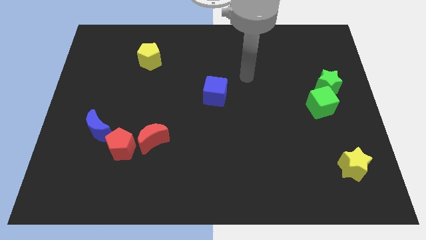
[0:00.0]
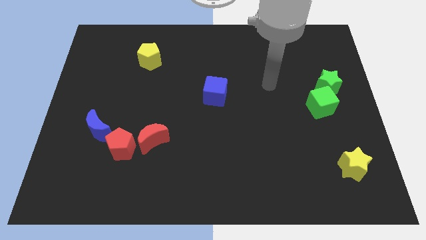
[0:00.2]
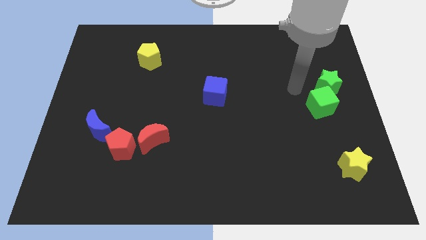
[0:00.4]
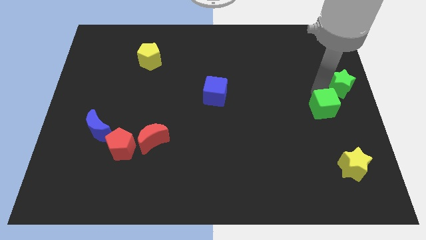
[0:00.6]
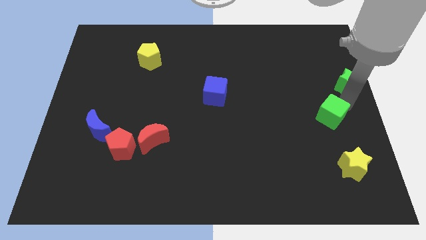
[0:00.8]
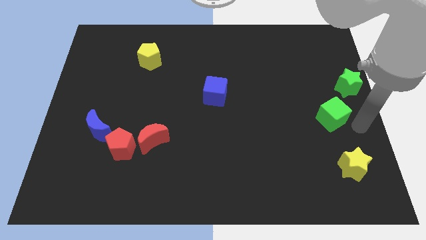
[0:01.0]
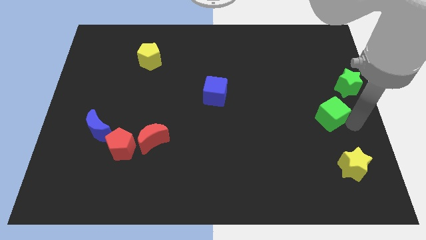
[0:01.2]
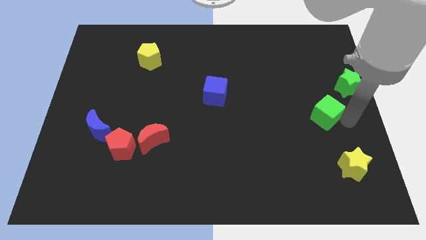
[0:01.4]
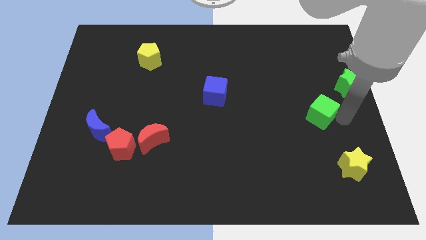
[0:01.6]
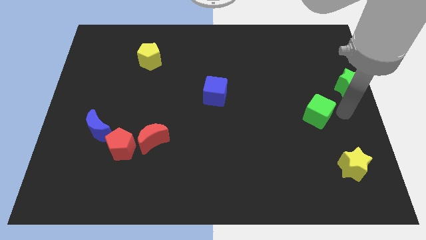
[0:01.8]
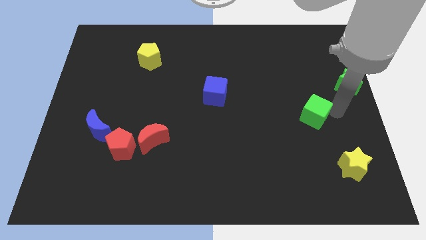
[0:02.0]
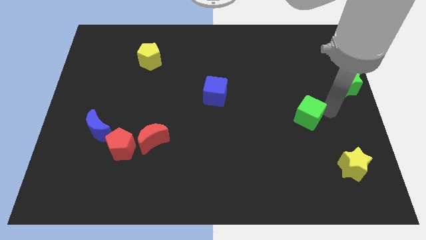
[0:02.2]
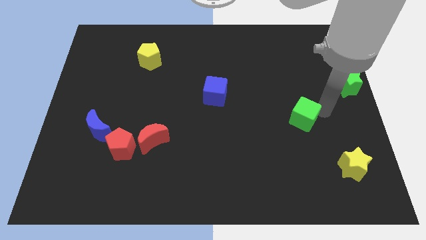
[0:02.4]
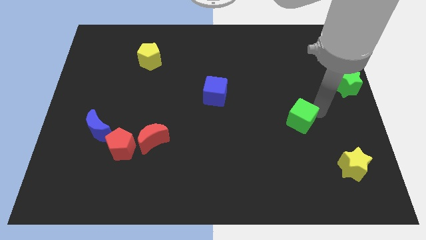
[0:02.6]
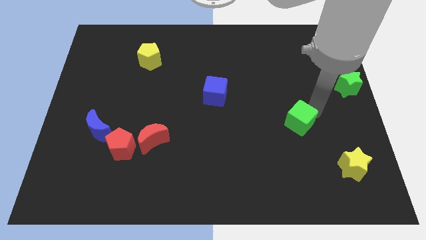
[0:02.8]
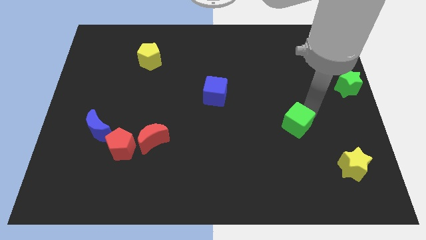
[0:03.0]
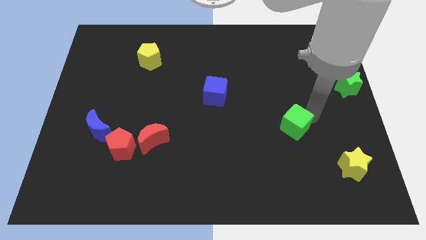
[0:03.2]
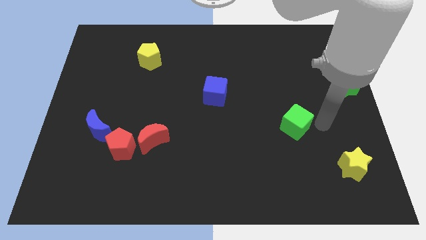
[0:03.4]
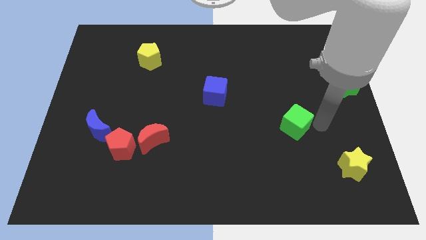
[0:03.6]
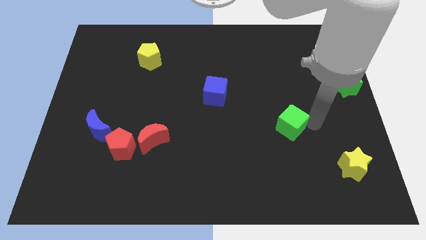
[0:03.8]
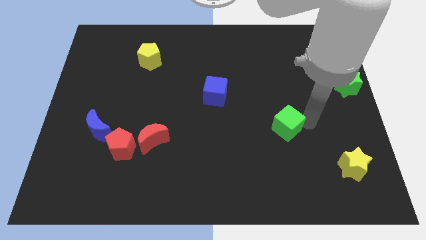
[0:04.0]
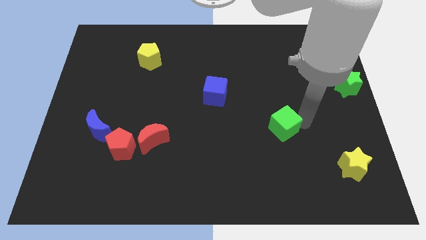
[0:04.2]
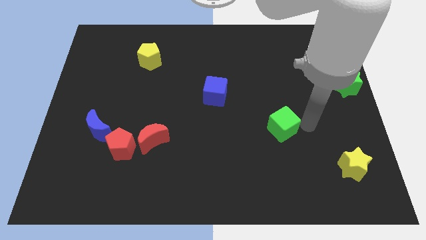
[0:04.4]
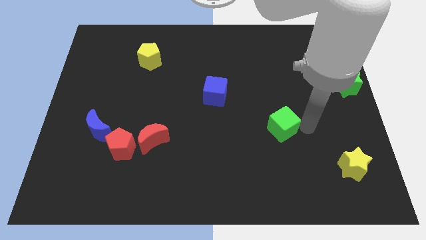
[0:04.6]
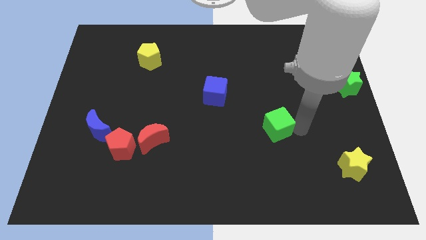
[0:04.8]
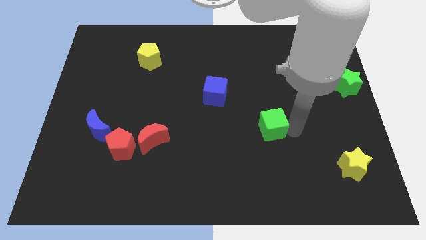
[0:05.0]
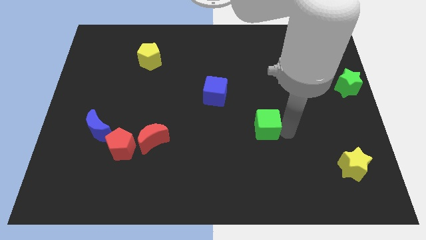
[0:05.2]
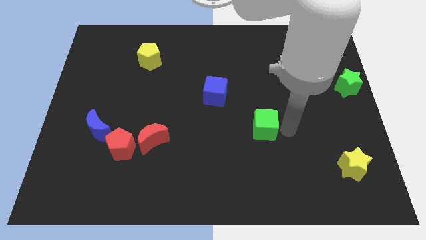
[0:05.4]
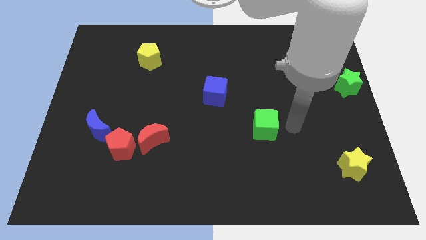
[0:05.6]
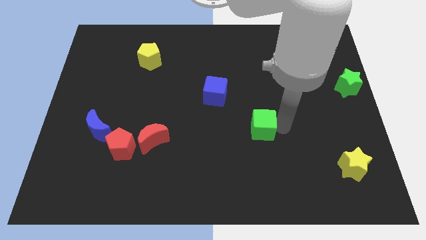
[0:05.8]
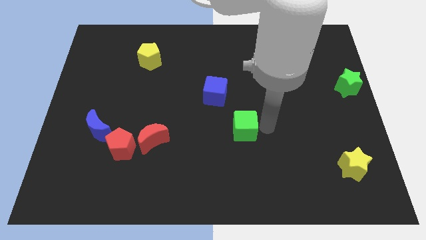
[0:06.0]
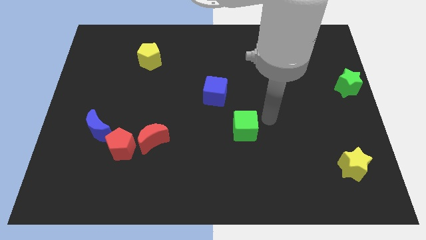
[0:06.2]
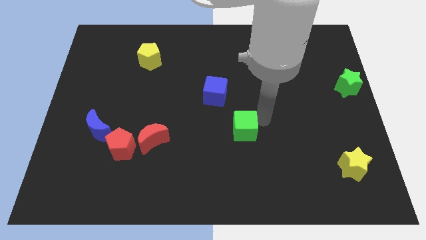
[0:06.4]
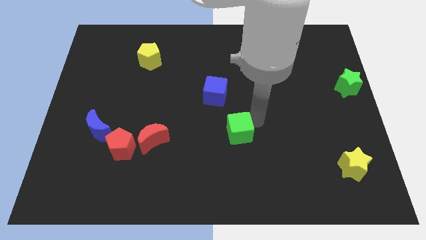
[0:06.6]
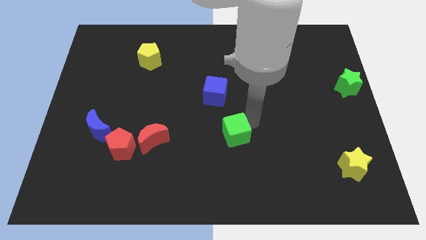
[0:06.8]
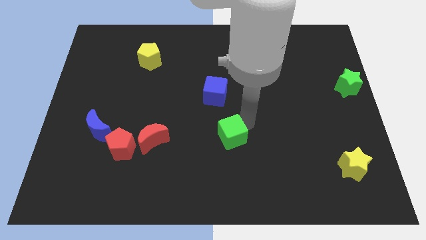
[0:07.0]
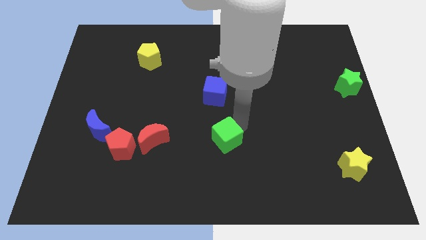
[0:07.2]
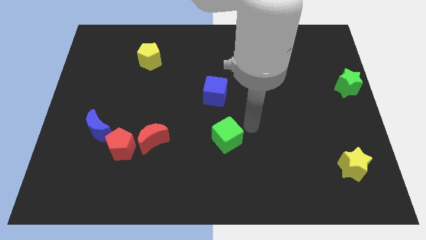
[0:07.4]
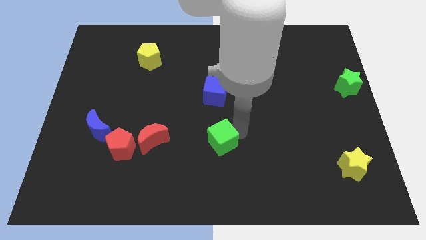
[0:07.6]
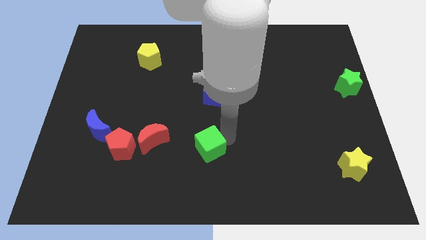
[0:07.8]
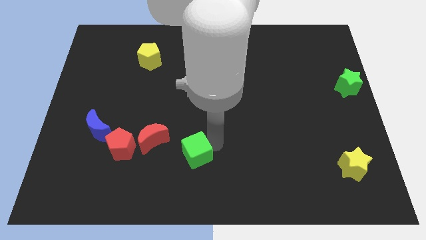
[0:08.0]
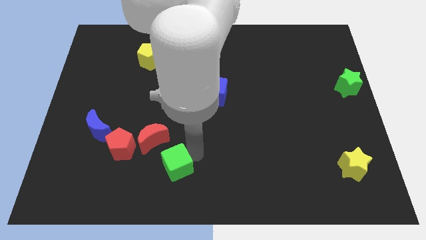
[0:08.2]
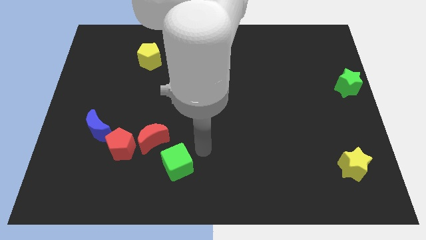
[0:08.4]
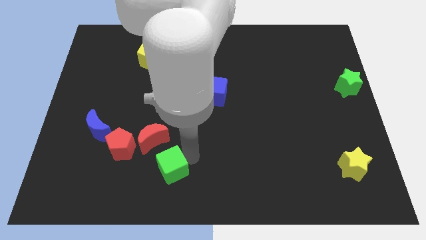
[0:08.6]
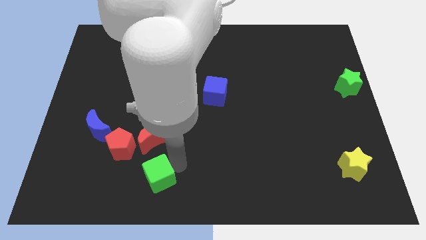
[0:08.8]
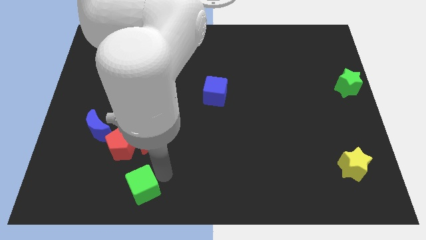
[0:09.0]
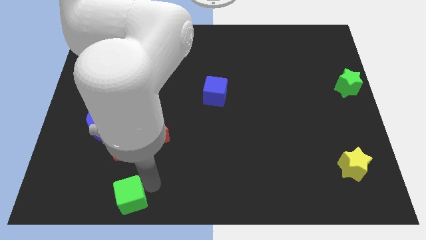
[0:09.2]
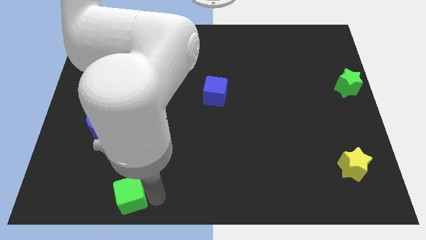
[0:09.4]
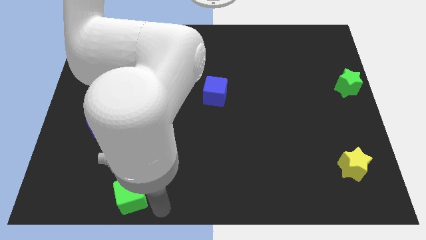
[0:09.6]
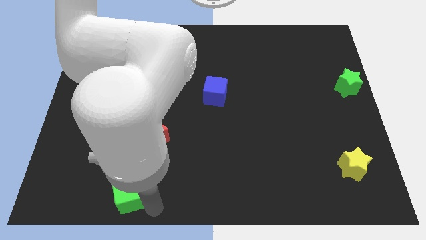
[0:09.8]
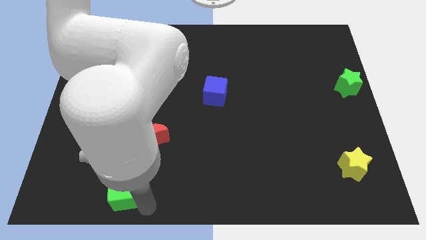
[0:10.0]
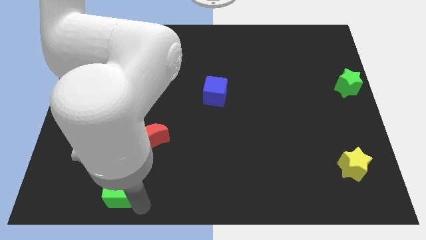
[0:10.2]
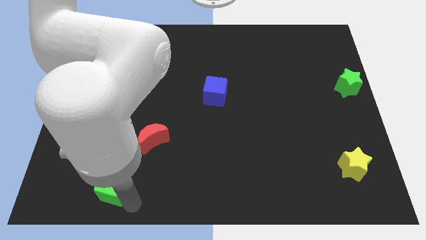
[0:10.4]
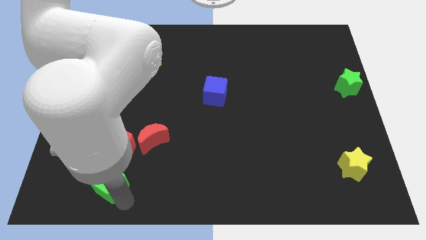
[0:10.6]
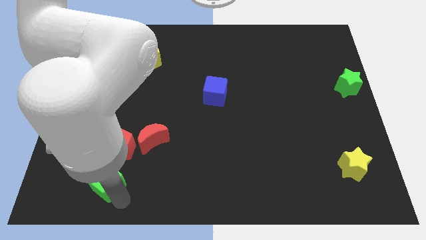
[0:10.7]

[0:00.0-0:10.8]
push the green cube to the bottom of the blue moon

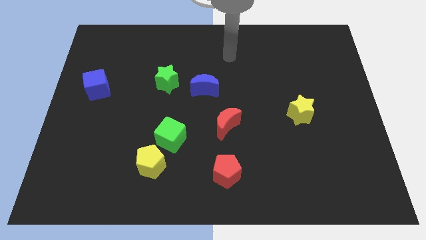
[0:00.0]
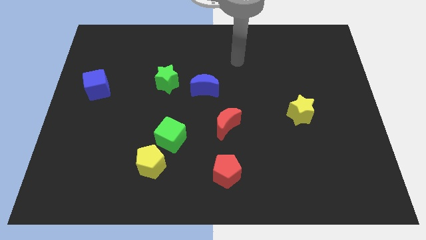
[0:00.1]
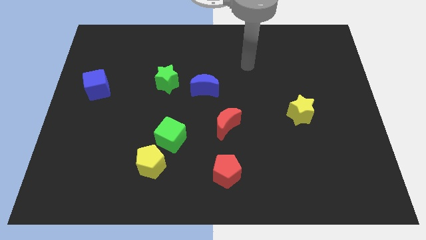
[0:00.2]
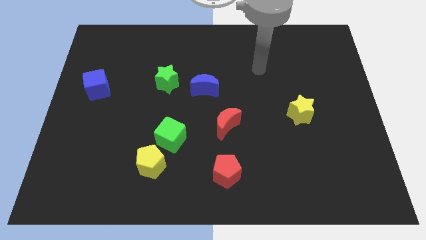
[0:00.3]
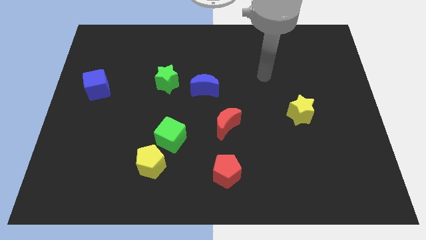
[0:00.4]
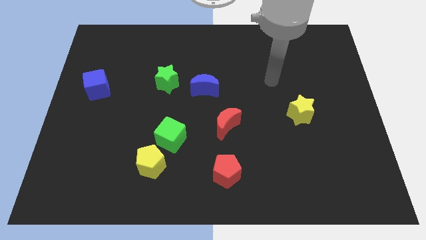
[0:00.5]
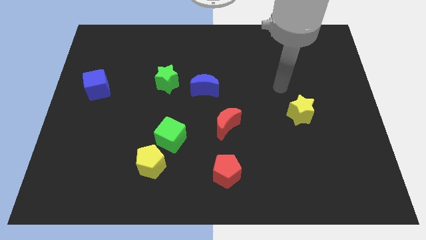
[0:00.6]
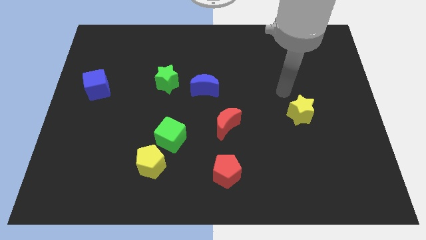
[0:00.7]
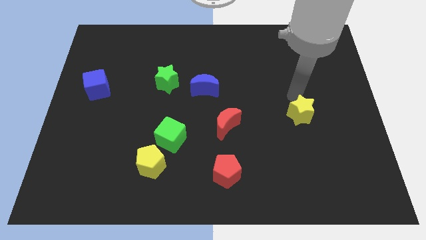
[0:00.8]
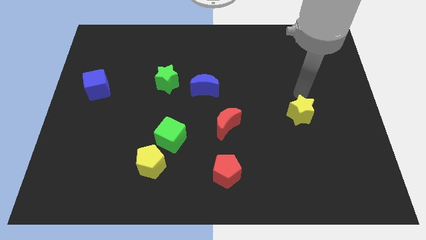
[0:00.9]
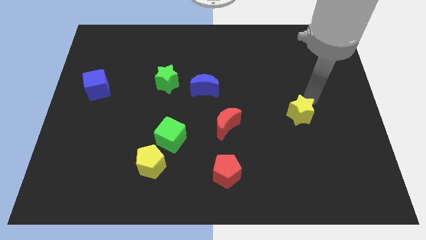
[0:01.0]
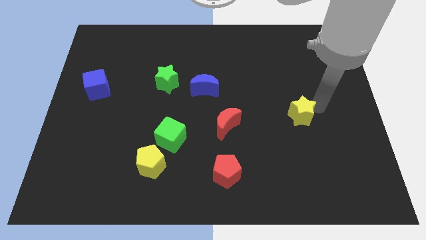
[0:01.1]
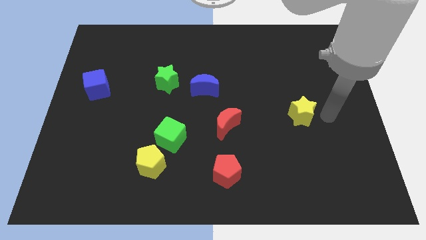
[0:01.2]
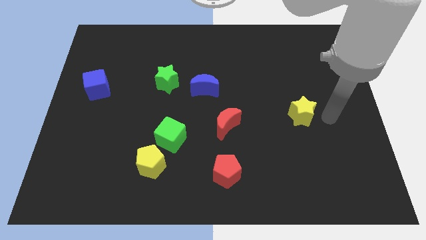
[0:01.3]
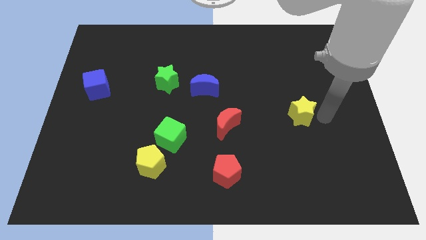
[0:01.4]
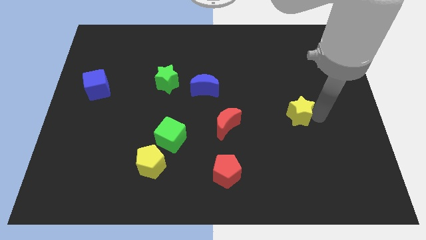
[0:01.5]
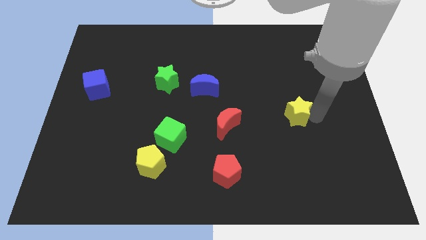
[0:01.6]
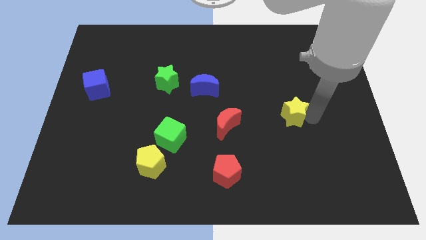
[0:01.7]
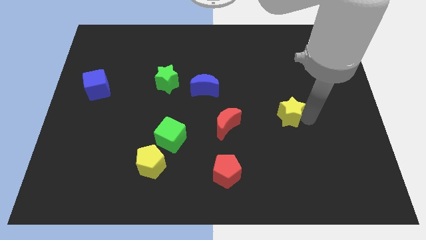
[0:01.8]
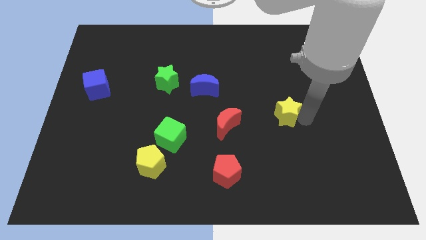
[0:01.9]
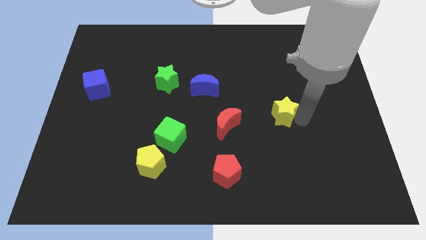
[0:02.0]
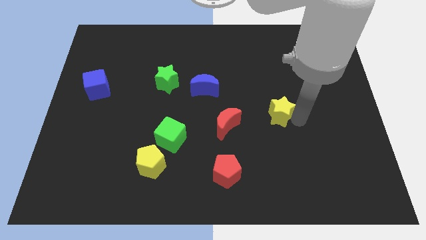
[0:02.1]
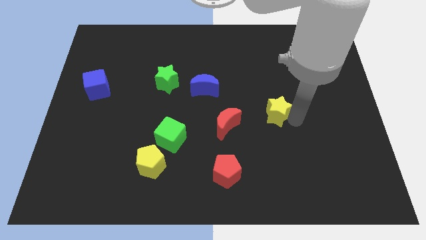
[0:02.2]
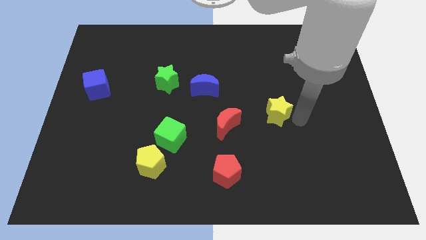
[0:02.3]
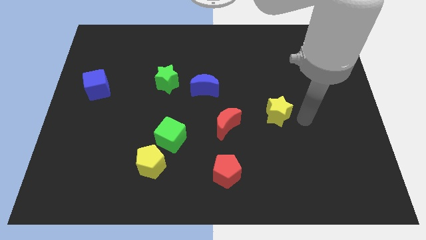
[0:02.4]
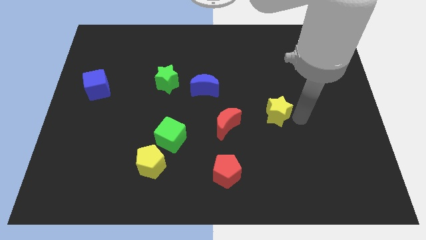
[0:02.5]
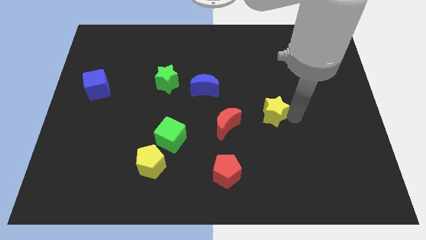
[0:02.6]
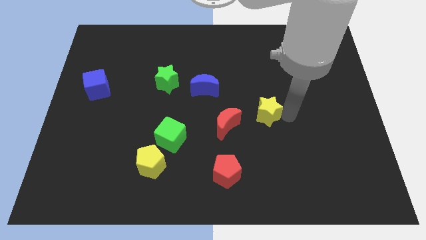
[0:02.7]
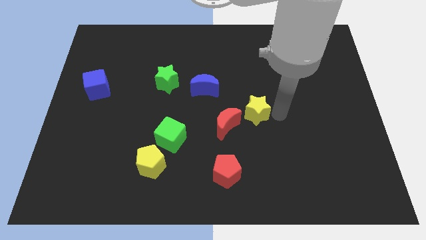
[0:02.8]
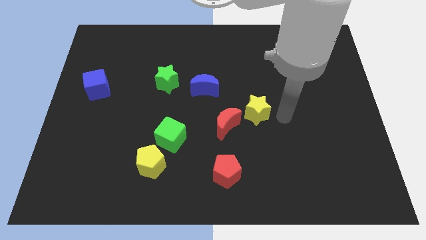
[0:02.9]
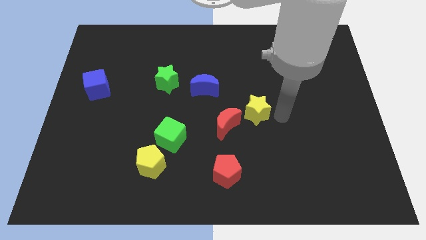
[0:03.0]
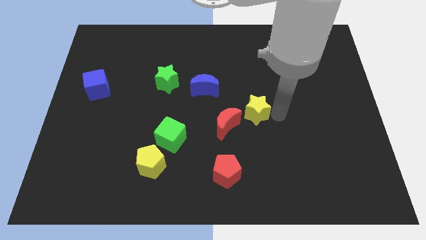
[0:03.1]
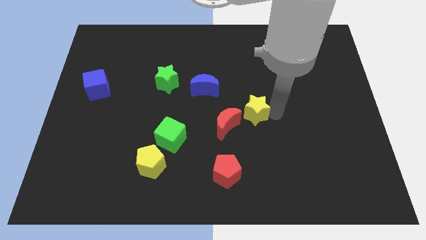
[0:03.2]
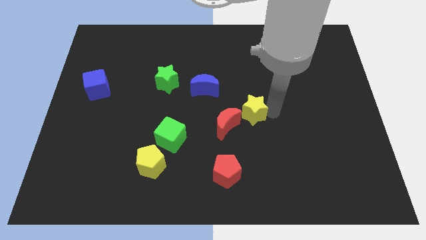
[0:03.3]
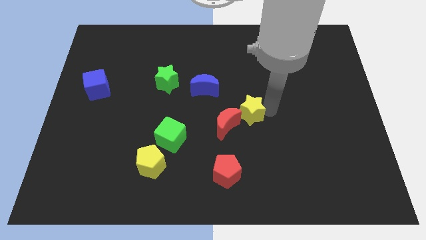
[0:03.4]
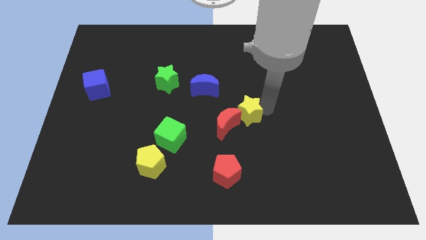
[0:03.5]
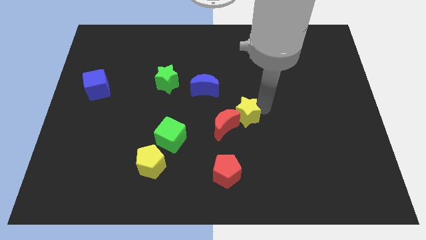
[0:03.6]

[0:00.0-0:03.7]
put the yellow star to the bottom right side of the blue moon
